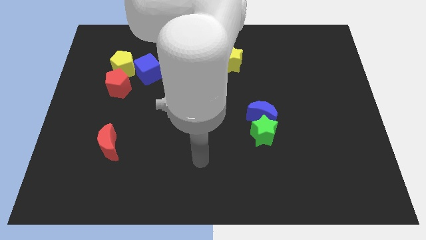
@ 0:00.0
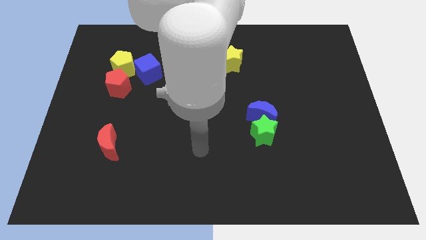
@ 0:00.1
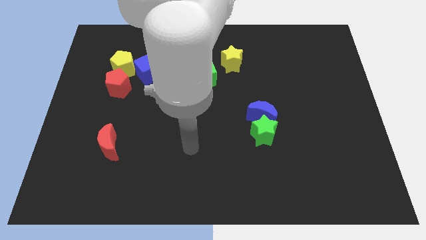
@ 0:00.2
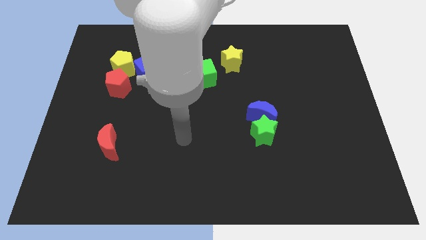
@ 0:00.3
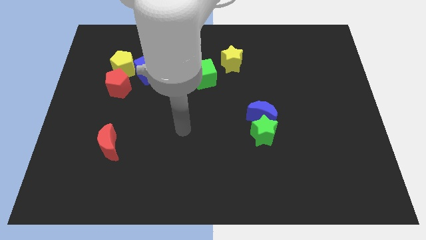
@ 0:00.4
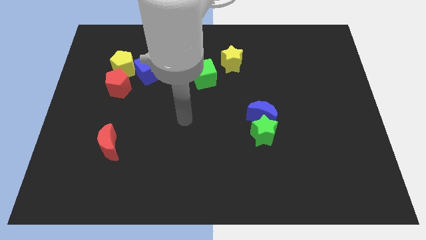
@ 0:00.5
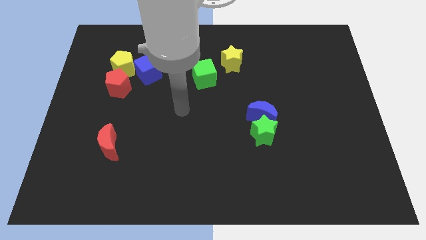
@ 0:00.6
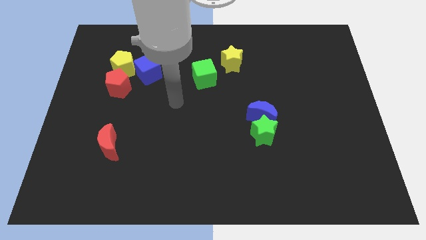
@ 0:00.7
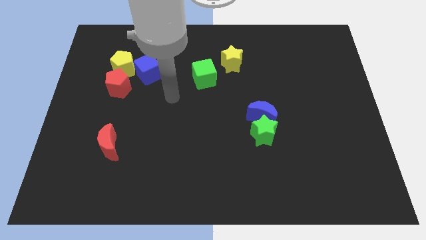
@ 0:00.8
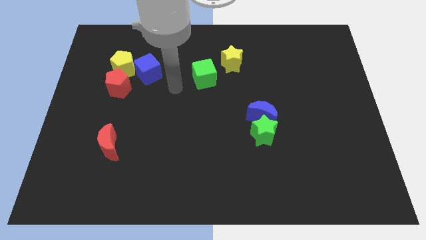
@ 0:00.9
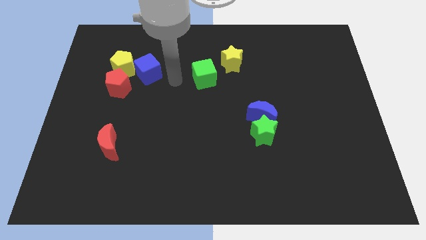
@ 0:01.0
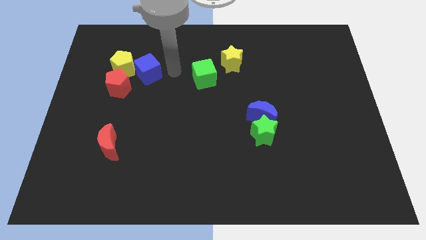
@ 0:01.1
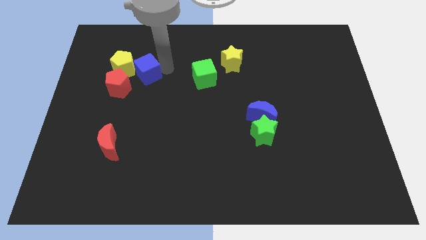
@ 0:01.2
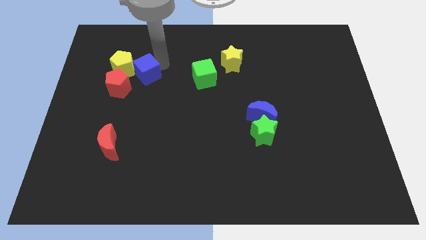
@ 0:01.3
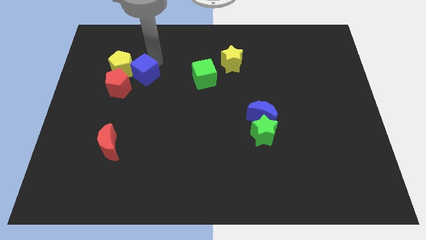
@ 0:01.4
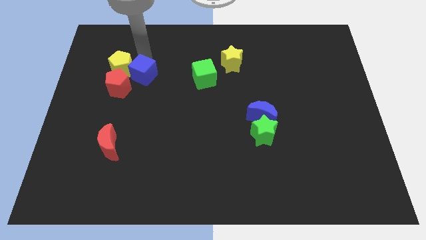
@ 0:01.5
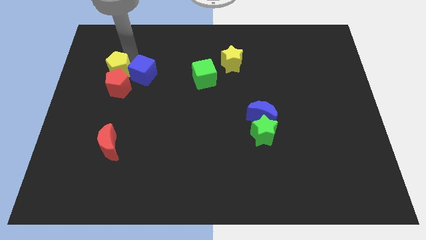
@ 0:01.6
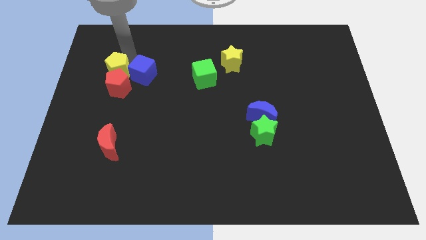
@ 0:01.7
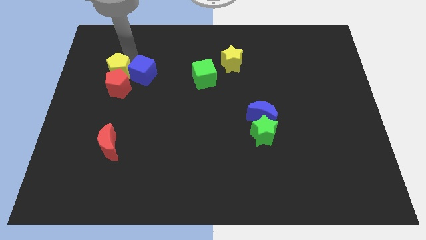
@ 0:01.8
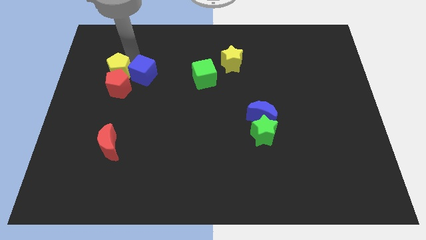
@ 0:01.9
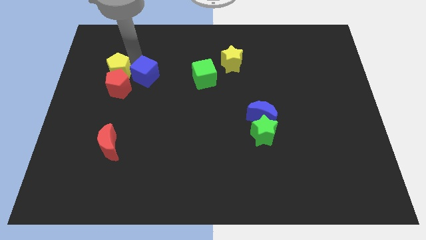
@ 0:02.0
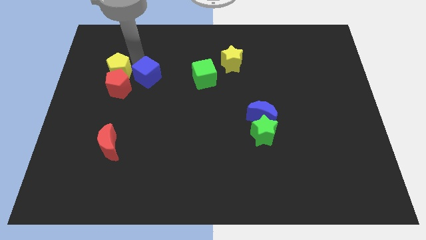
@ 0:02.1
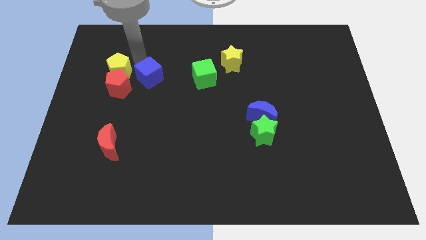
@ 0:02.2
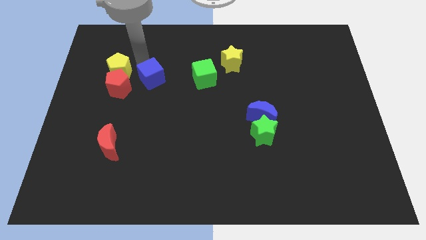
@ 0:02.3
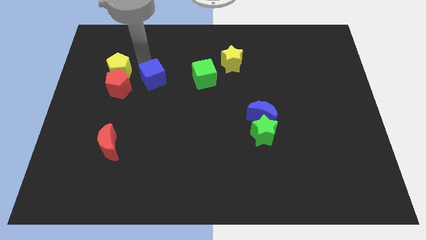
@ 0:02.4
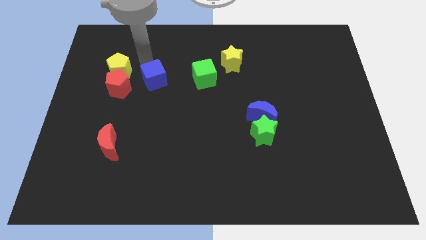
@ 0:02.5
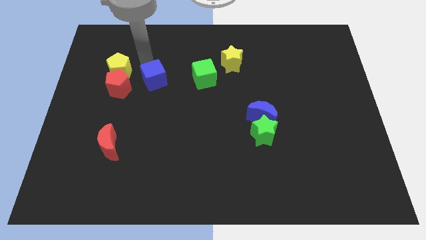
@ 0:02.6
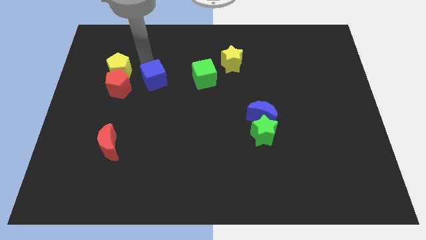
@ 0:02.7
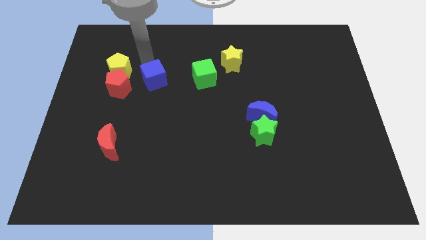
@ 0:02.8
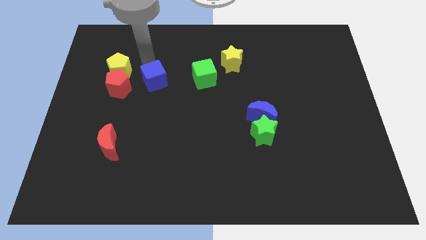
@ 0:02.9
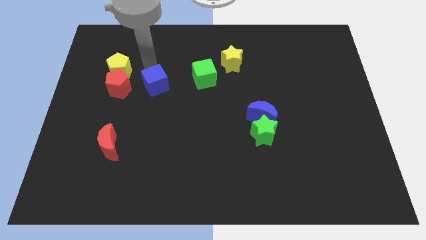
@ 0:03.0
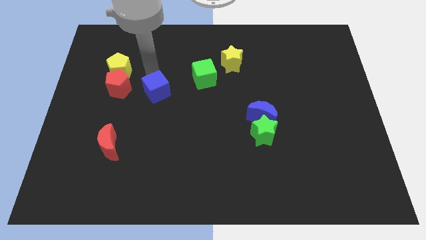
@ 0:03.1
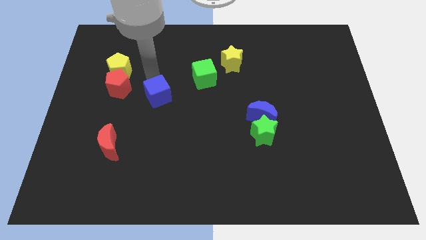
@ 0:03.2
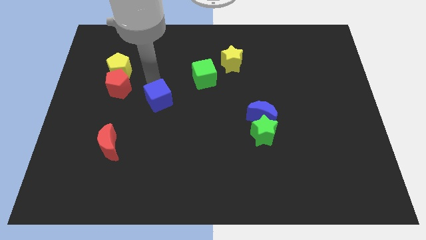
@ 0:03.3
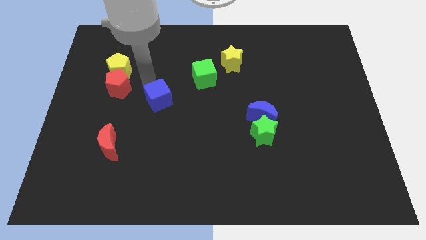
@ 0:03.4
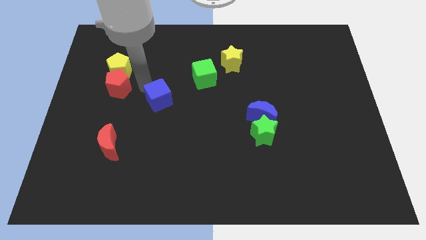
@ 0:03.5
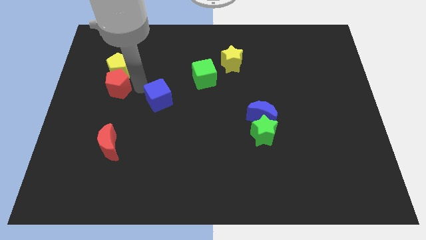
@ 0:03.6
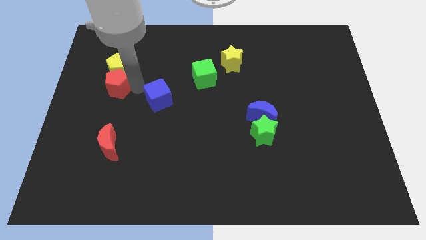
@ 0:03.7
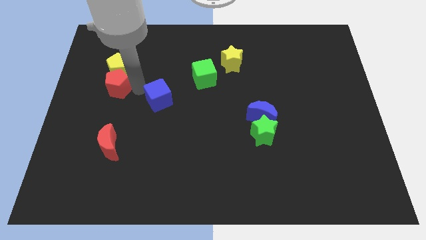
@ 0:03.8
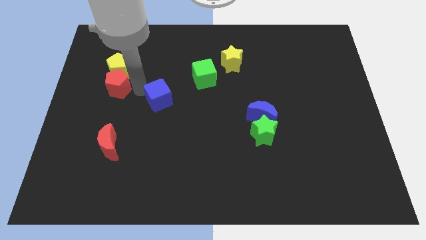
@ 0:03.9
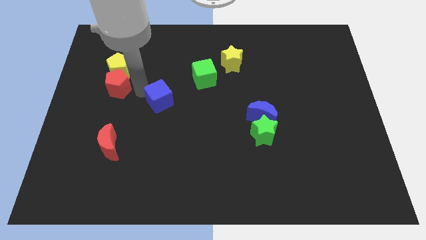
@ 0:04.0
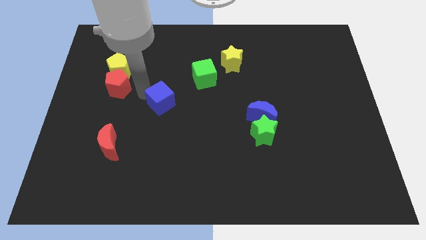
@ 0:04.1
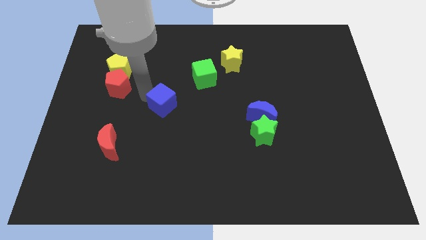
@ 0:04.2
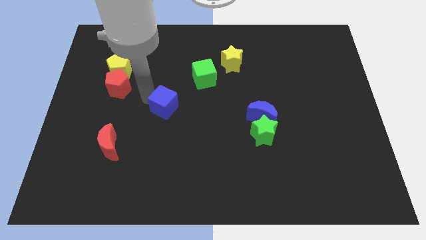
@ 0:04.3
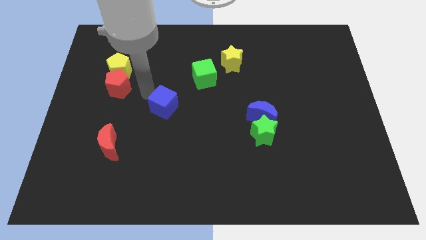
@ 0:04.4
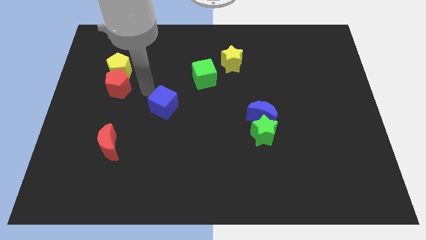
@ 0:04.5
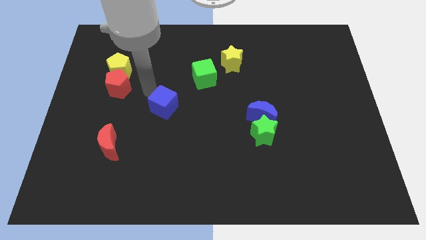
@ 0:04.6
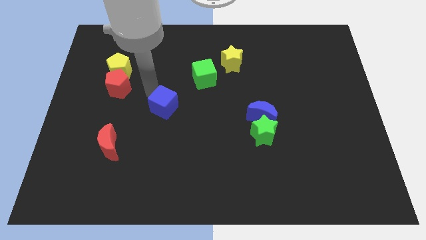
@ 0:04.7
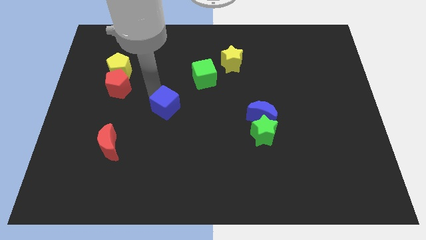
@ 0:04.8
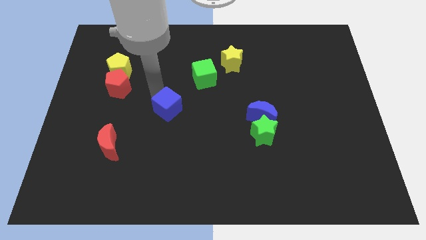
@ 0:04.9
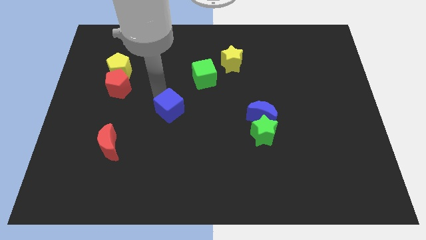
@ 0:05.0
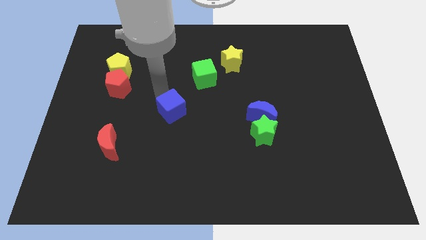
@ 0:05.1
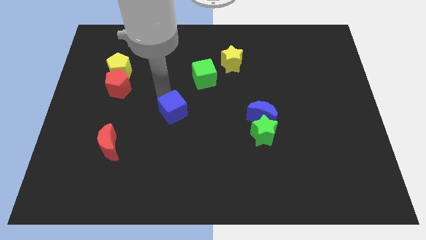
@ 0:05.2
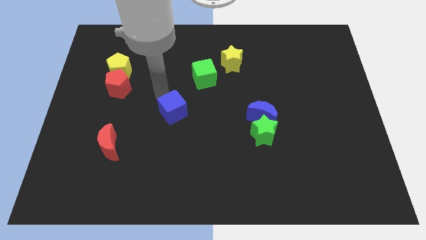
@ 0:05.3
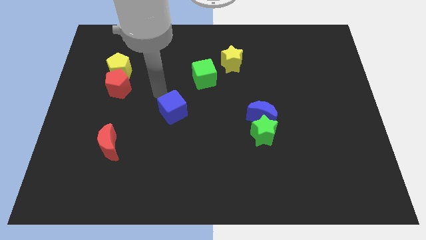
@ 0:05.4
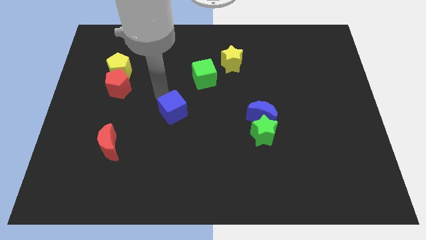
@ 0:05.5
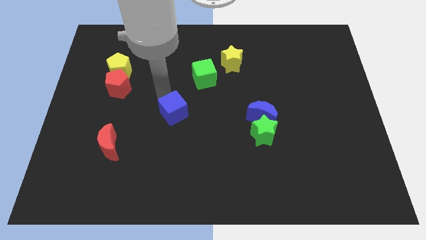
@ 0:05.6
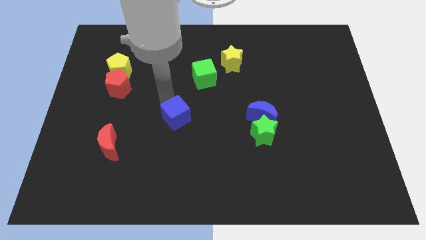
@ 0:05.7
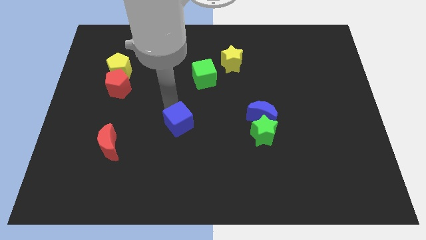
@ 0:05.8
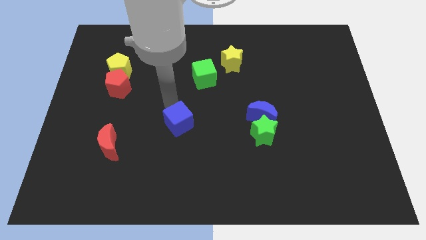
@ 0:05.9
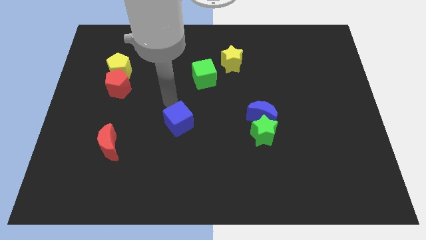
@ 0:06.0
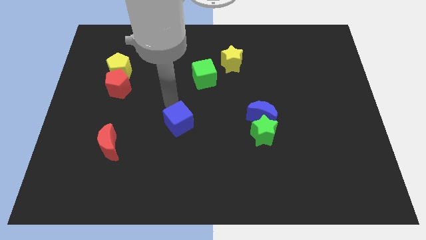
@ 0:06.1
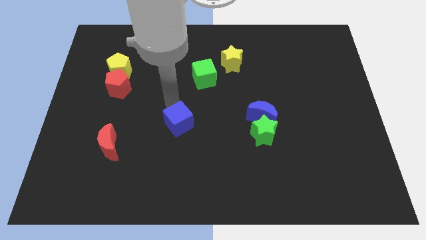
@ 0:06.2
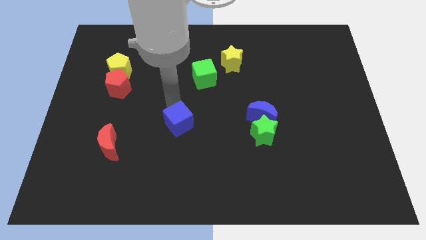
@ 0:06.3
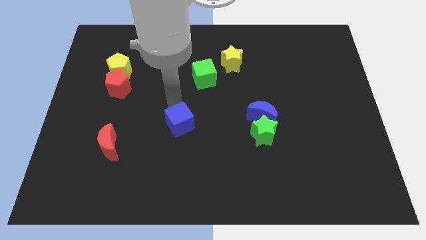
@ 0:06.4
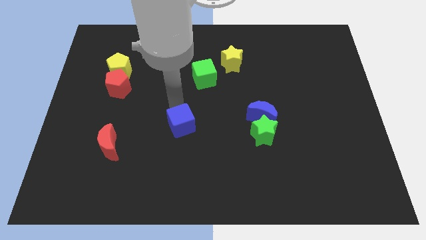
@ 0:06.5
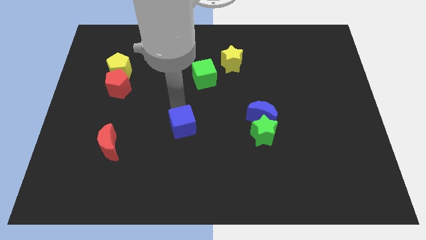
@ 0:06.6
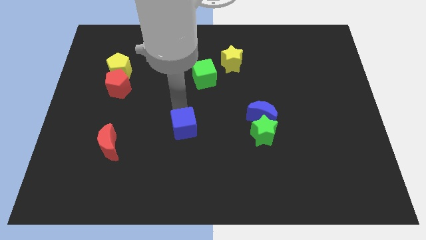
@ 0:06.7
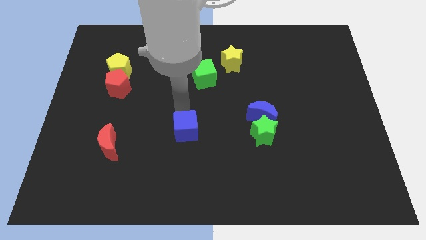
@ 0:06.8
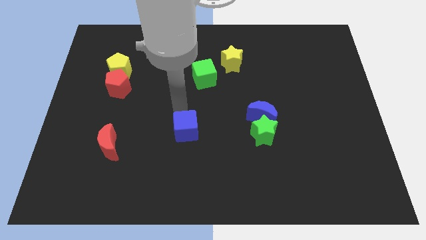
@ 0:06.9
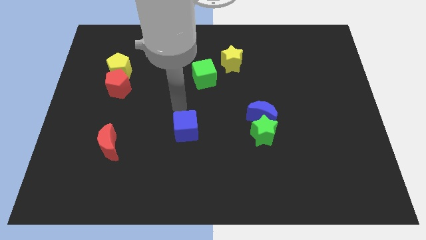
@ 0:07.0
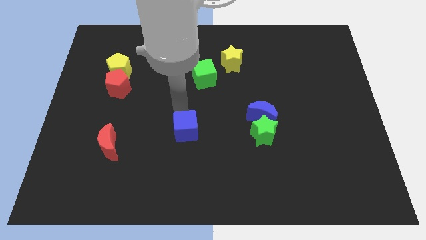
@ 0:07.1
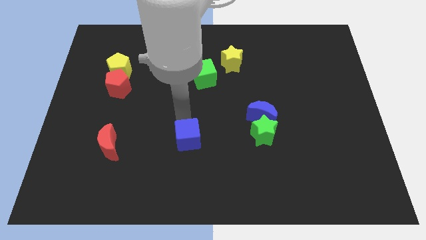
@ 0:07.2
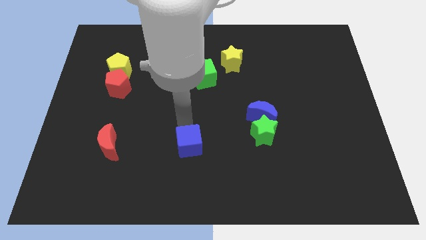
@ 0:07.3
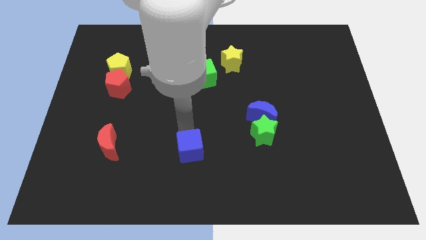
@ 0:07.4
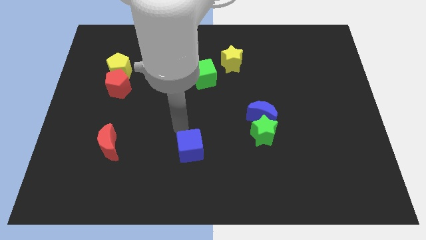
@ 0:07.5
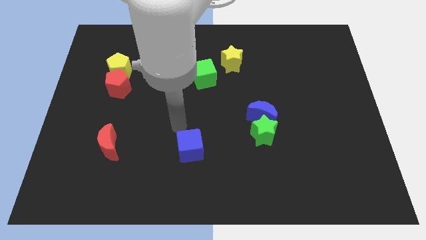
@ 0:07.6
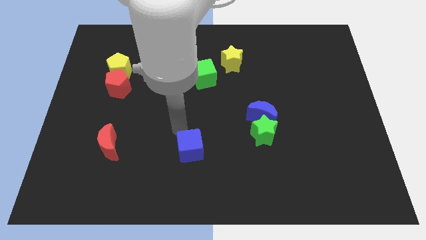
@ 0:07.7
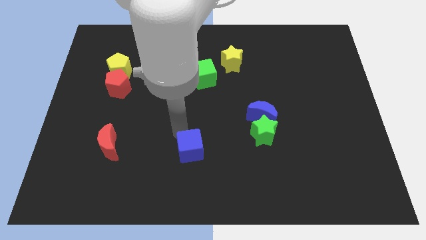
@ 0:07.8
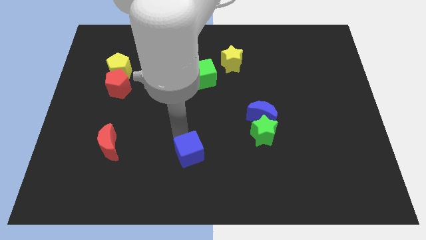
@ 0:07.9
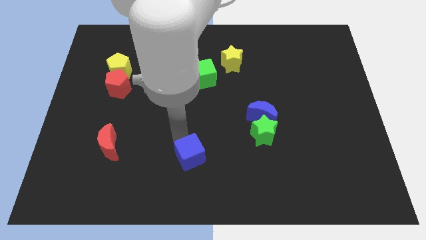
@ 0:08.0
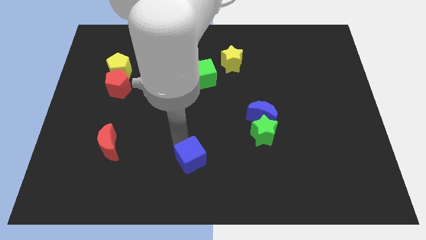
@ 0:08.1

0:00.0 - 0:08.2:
push the blue cube to the bottom side
